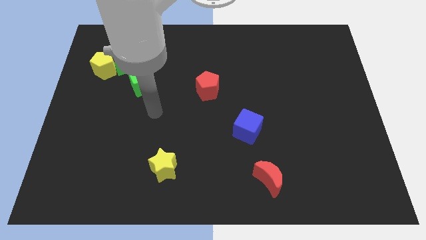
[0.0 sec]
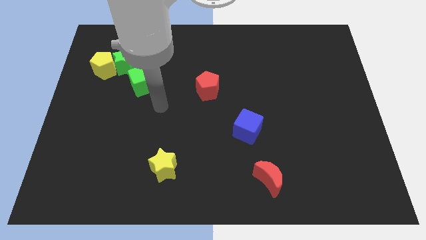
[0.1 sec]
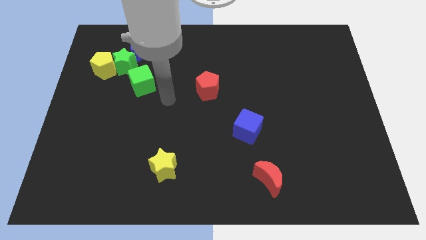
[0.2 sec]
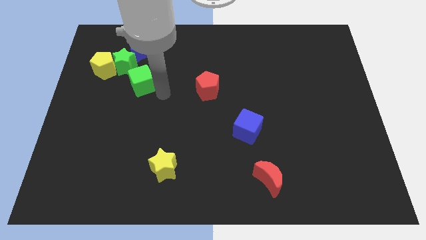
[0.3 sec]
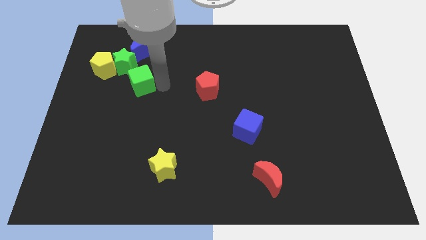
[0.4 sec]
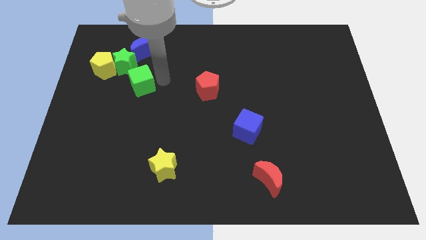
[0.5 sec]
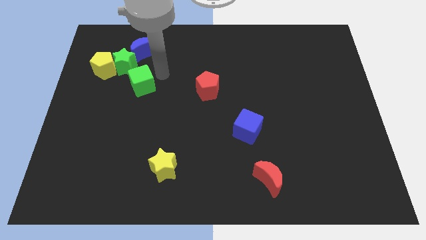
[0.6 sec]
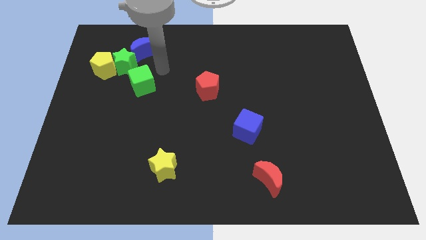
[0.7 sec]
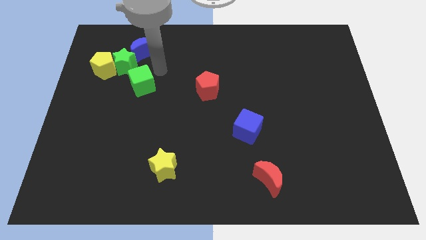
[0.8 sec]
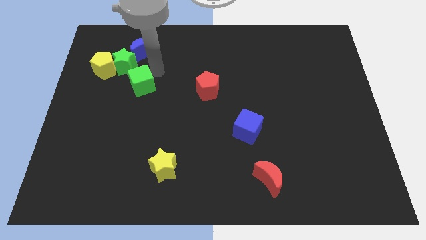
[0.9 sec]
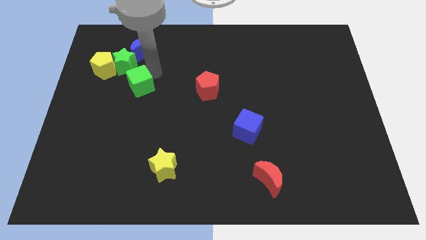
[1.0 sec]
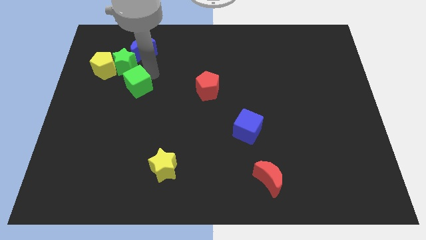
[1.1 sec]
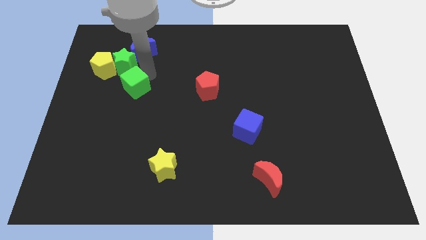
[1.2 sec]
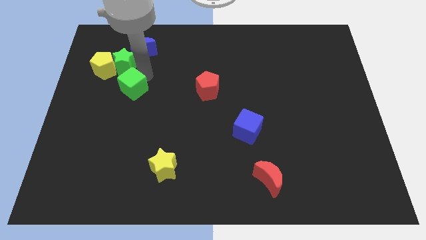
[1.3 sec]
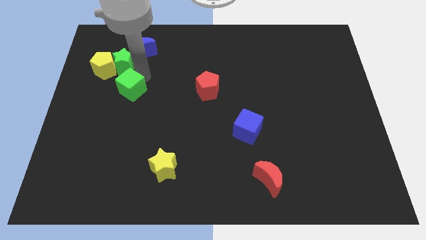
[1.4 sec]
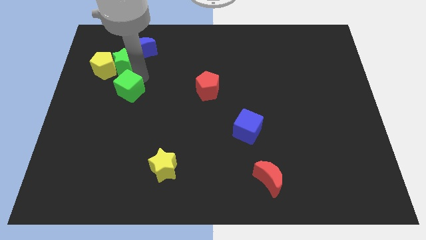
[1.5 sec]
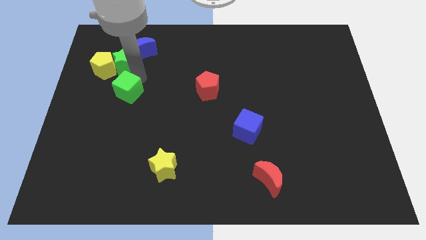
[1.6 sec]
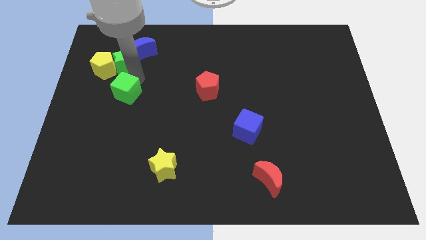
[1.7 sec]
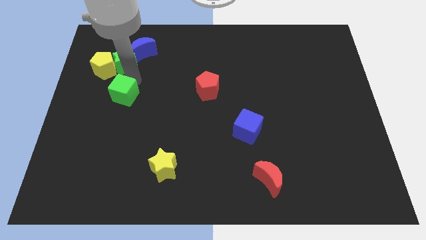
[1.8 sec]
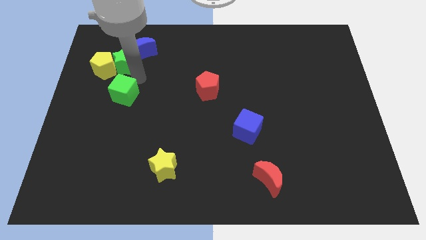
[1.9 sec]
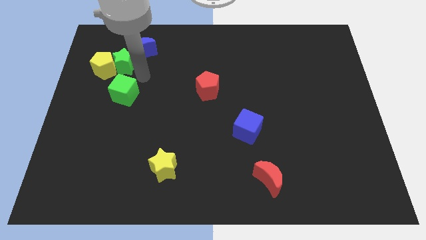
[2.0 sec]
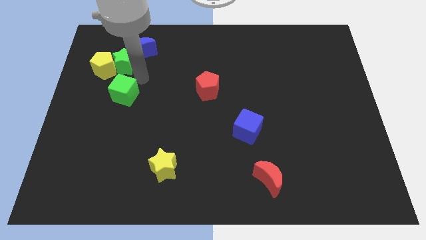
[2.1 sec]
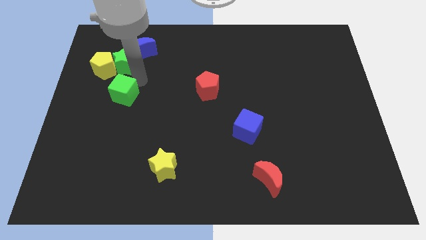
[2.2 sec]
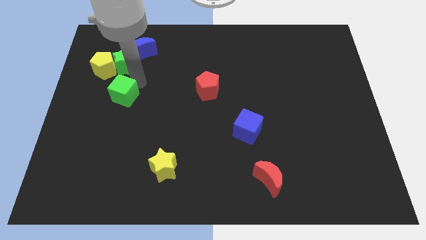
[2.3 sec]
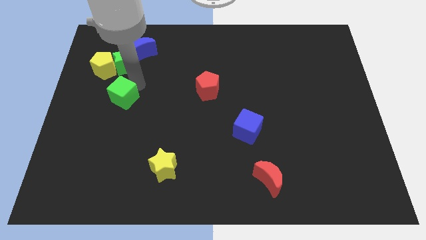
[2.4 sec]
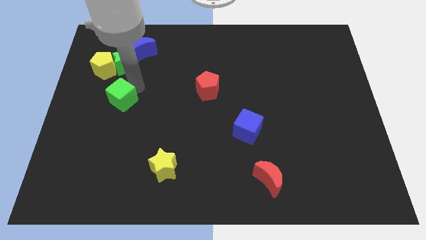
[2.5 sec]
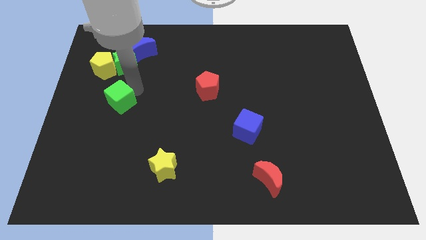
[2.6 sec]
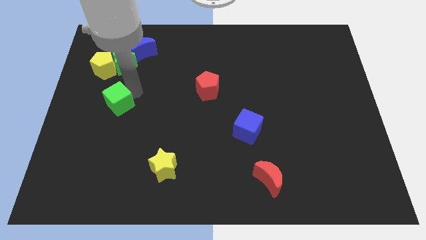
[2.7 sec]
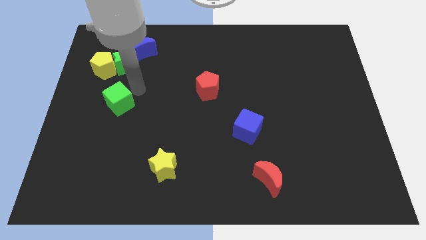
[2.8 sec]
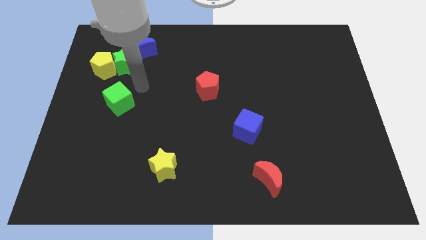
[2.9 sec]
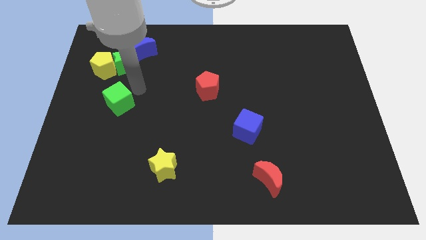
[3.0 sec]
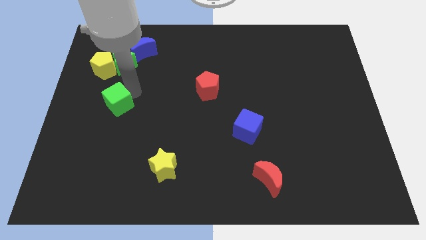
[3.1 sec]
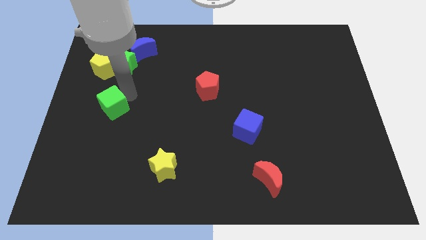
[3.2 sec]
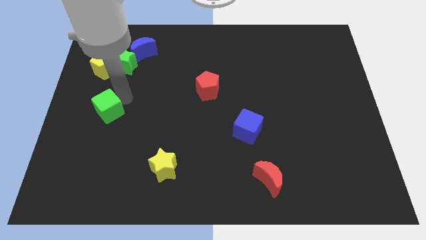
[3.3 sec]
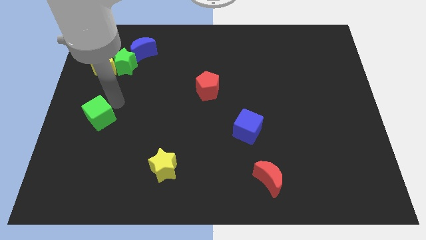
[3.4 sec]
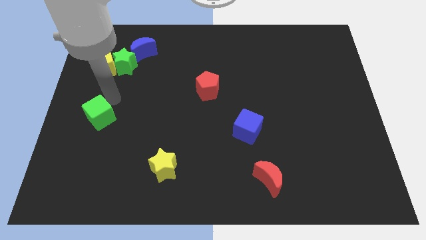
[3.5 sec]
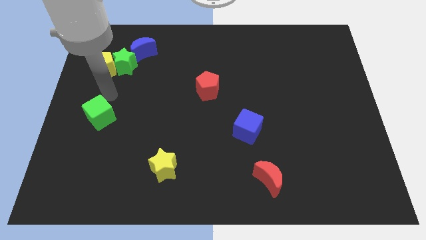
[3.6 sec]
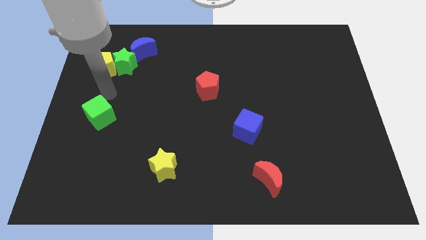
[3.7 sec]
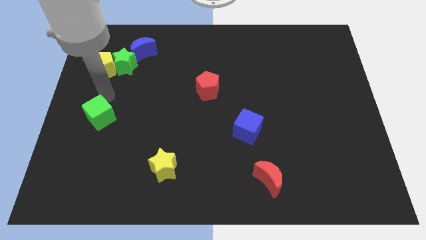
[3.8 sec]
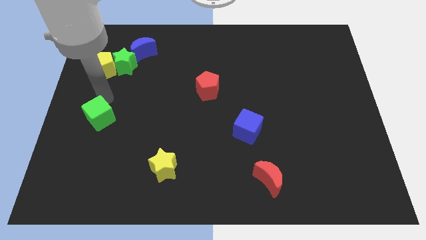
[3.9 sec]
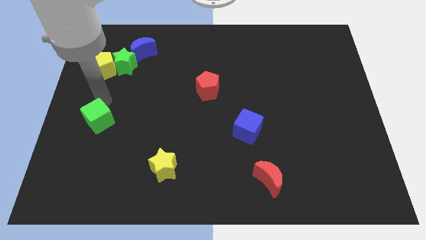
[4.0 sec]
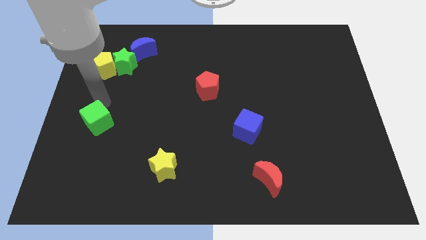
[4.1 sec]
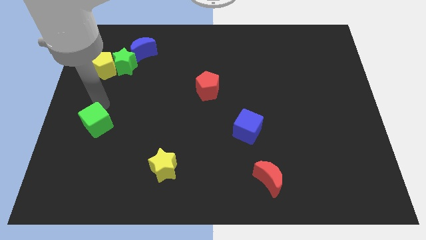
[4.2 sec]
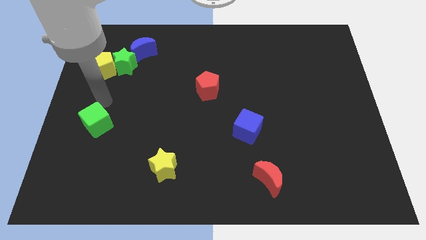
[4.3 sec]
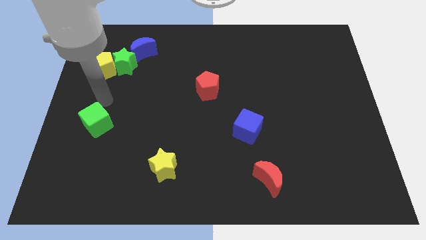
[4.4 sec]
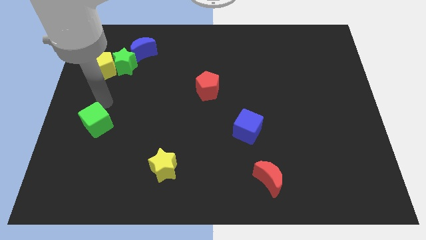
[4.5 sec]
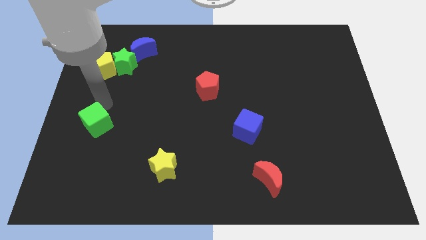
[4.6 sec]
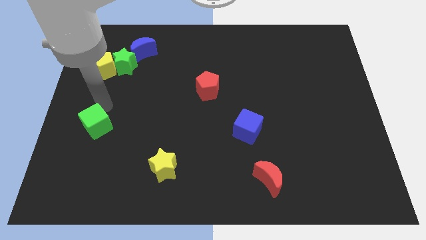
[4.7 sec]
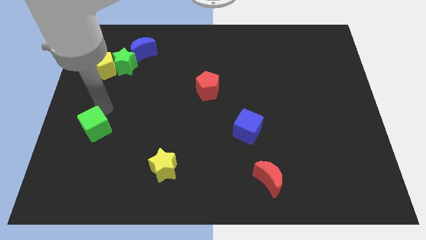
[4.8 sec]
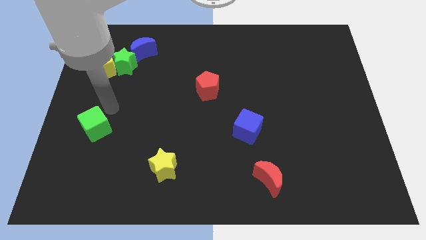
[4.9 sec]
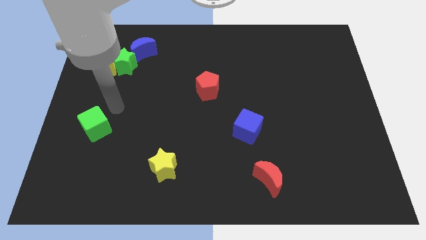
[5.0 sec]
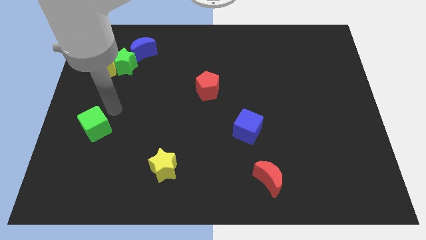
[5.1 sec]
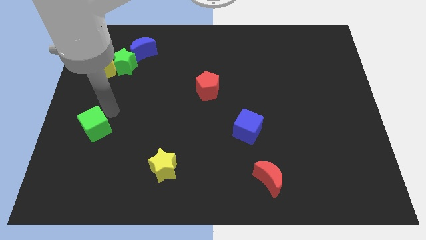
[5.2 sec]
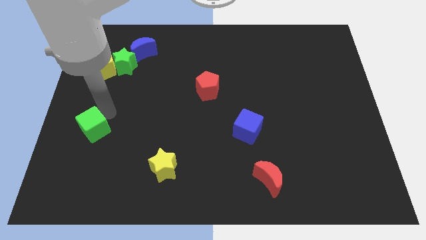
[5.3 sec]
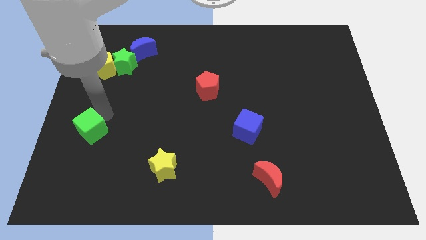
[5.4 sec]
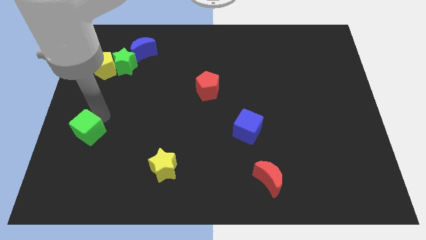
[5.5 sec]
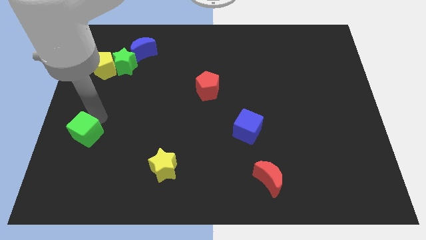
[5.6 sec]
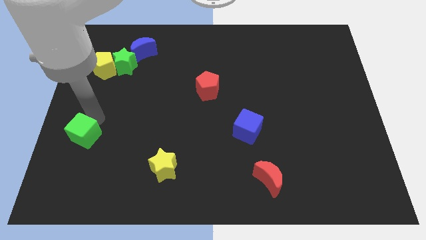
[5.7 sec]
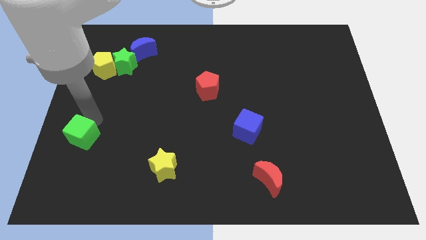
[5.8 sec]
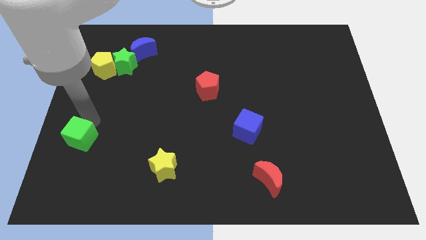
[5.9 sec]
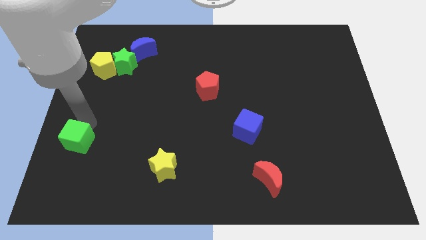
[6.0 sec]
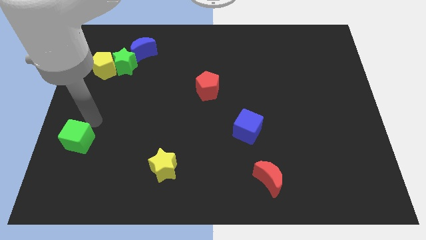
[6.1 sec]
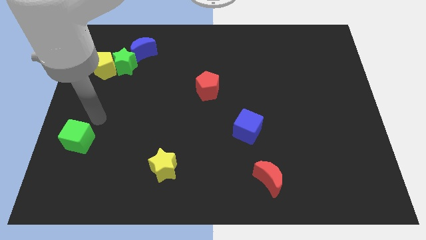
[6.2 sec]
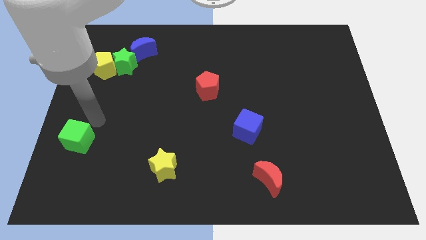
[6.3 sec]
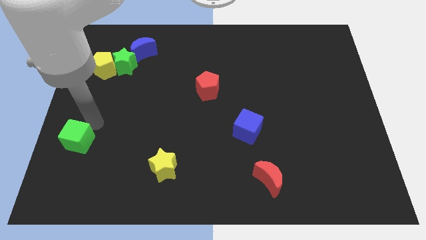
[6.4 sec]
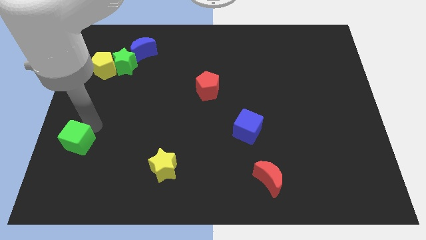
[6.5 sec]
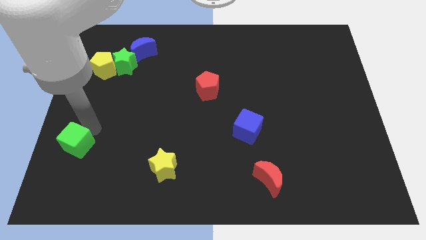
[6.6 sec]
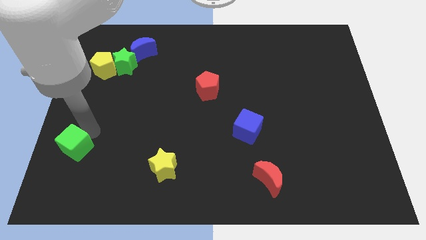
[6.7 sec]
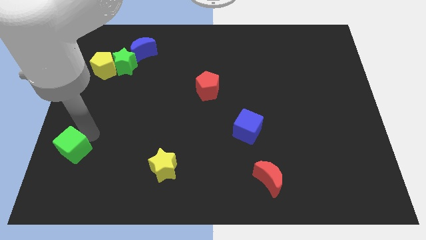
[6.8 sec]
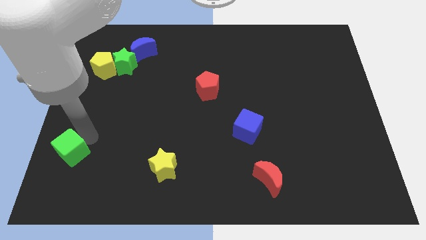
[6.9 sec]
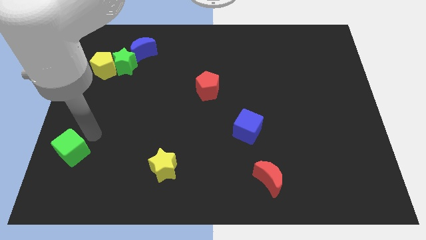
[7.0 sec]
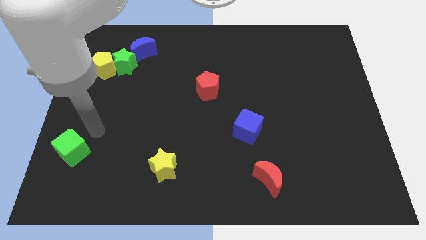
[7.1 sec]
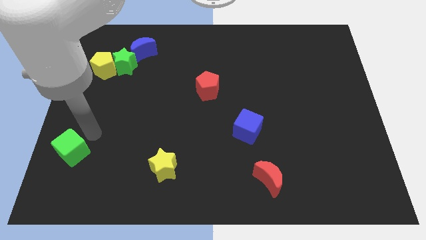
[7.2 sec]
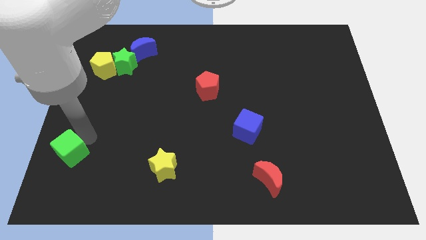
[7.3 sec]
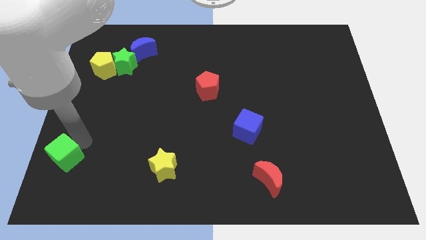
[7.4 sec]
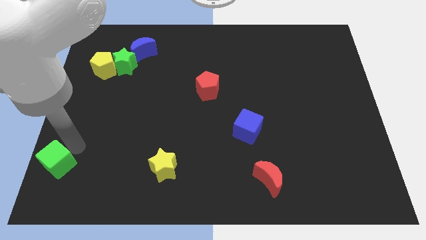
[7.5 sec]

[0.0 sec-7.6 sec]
push the green cube to the bottom left of the board
